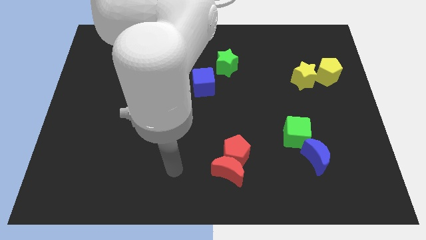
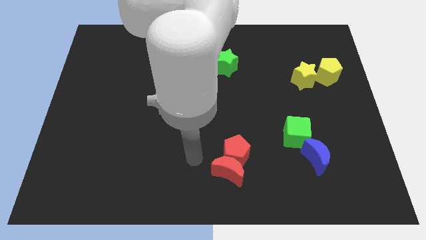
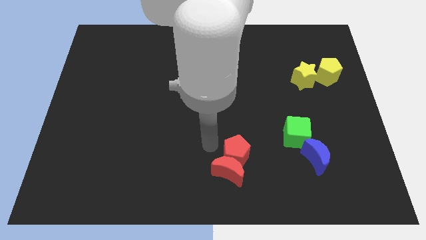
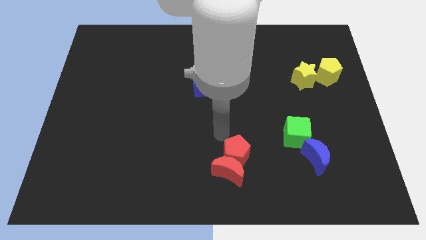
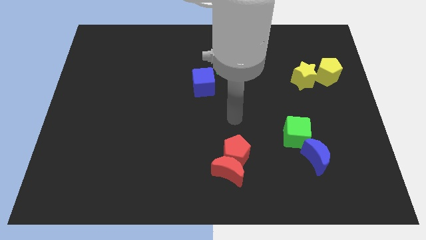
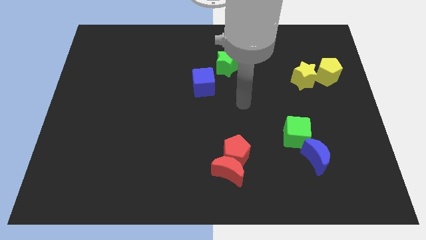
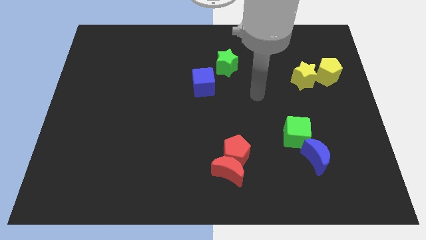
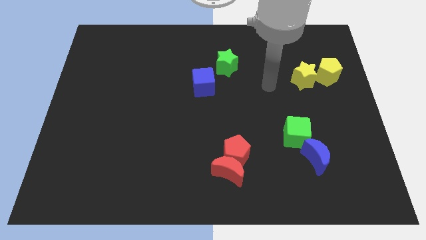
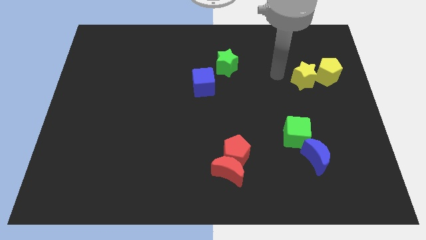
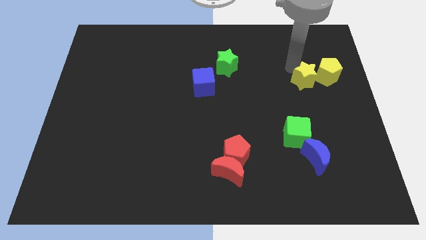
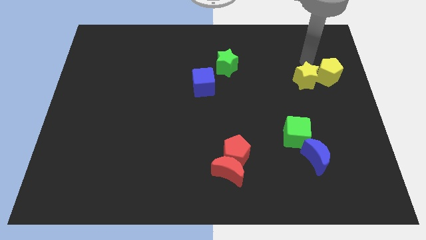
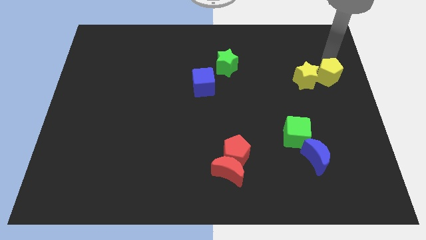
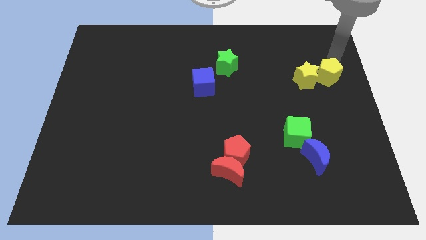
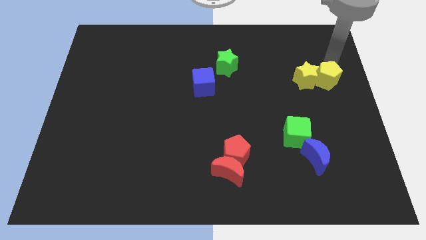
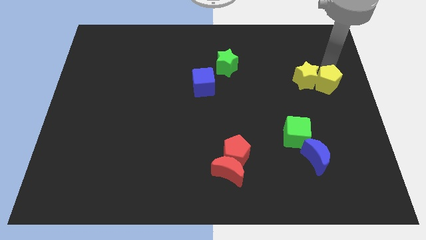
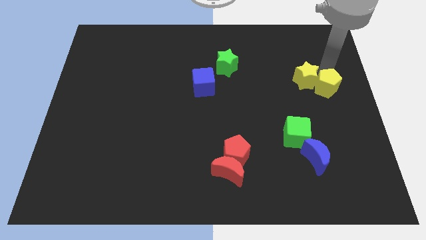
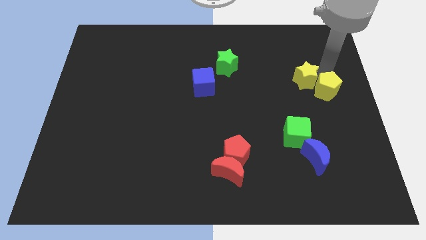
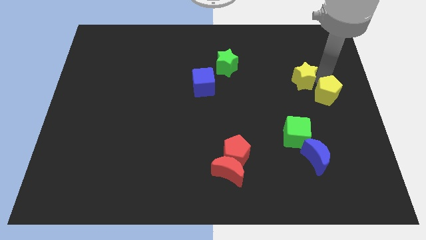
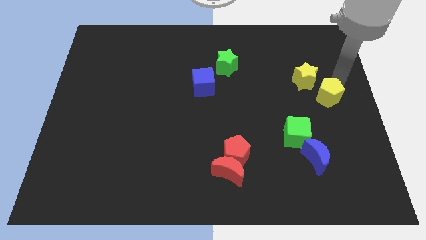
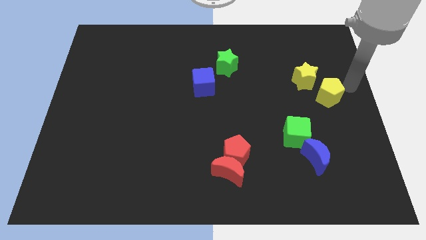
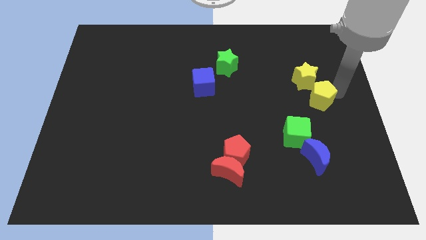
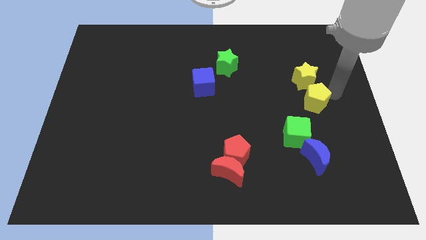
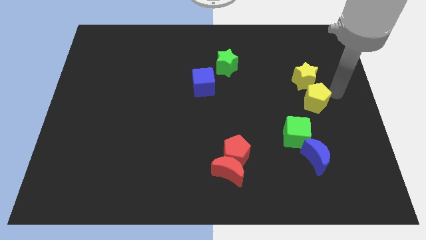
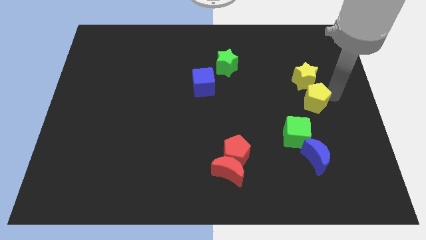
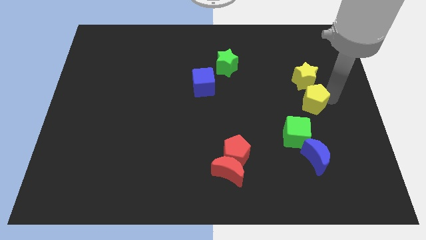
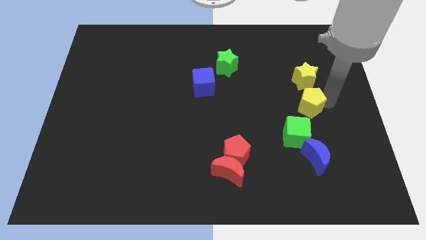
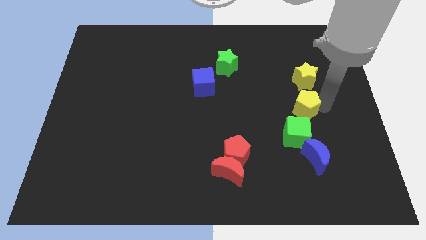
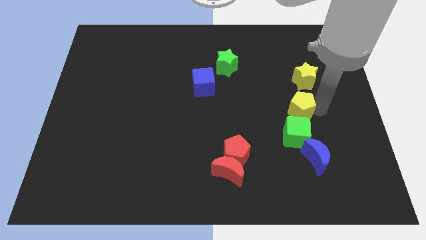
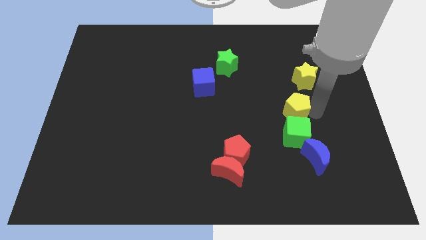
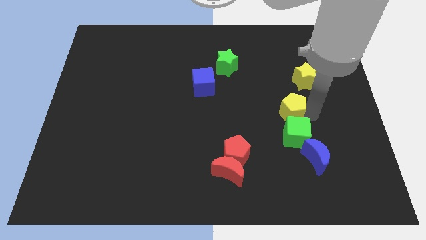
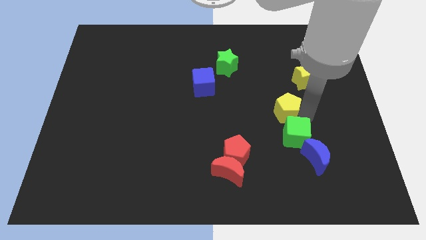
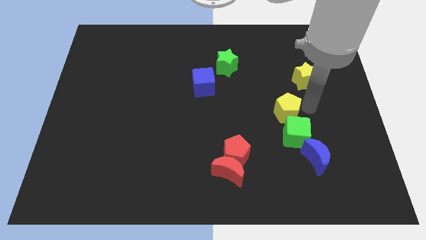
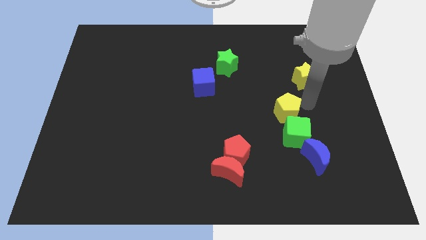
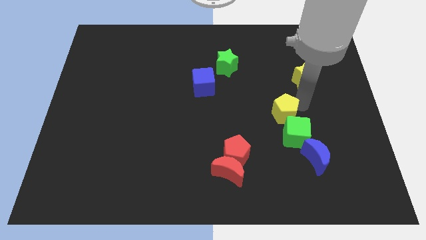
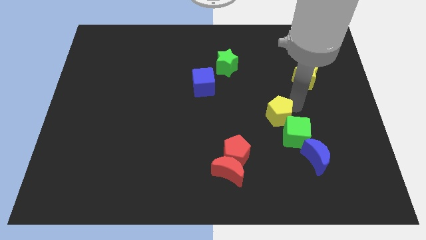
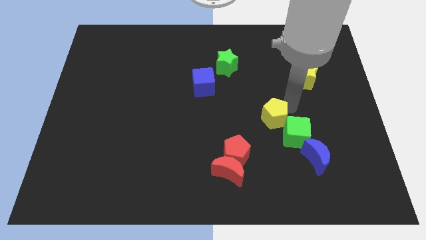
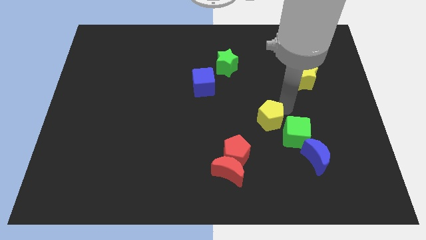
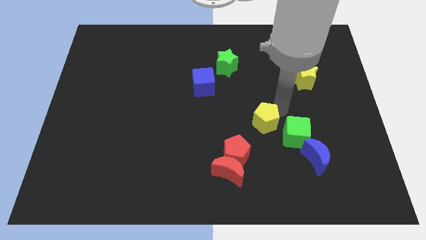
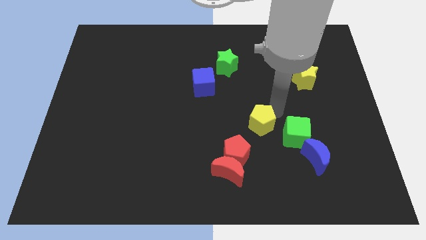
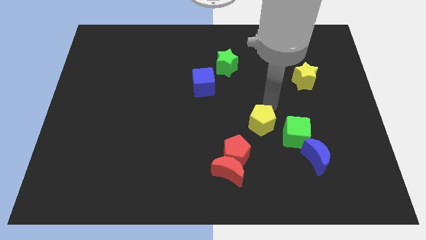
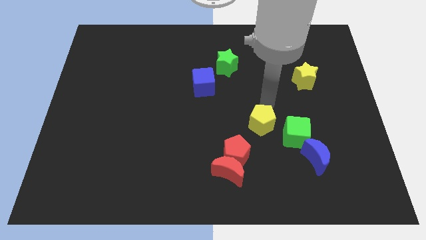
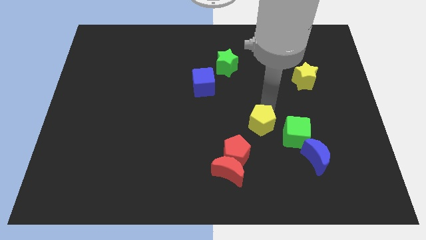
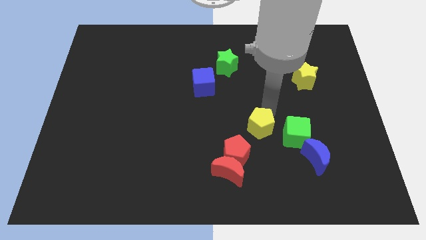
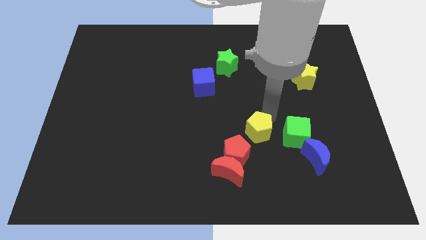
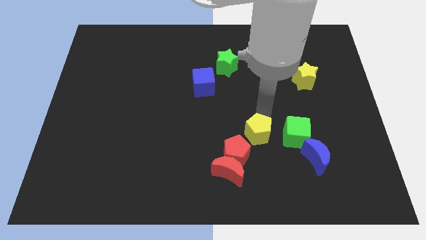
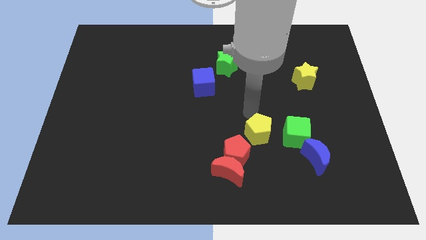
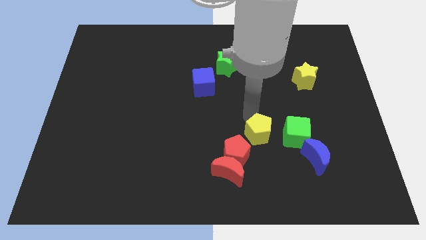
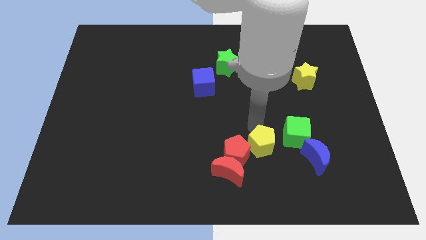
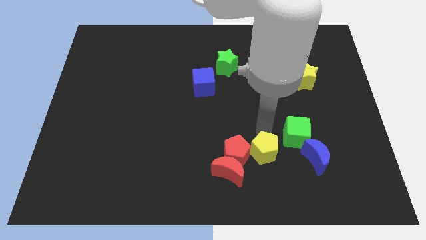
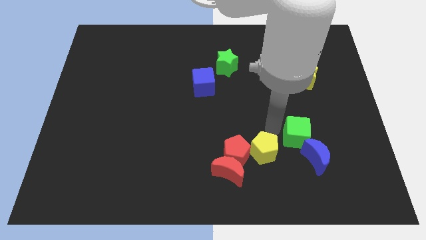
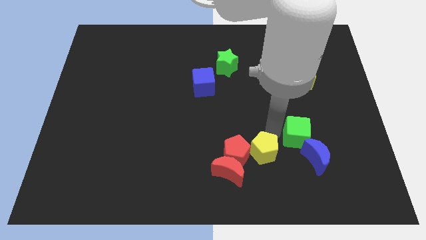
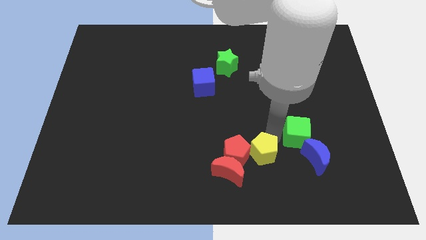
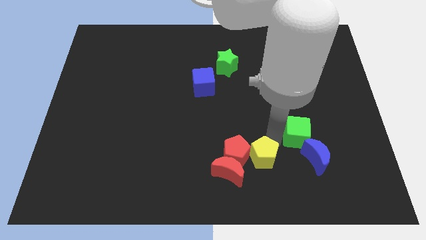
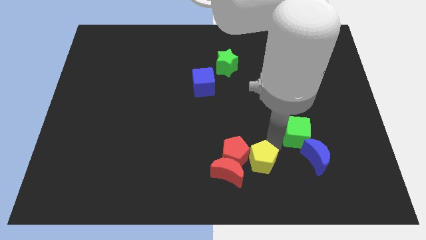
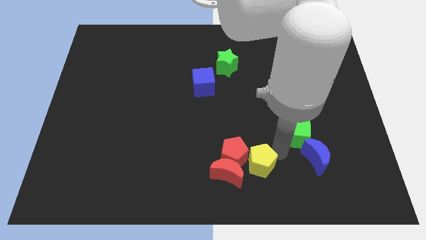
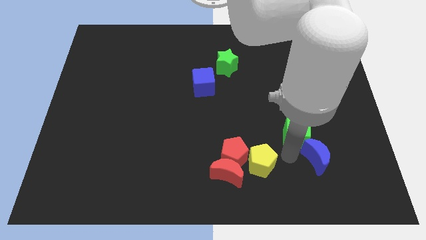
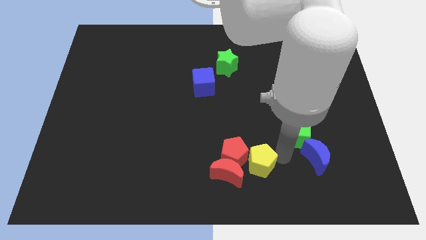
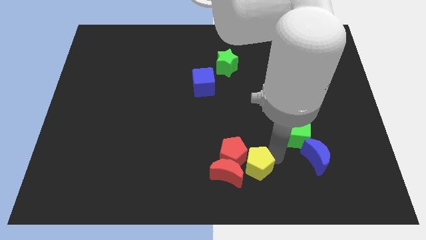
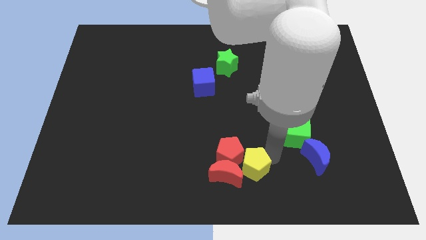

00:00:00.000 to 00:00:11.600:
move the yellow pentagon close to the red moon

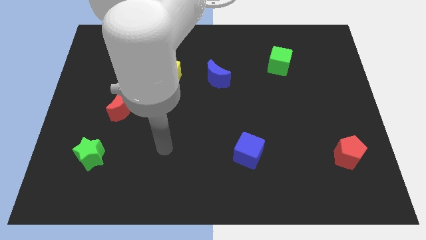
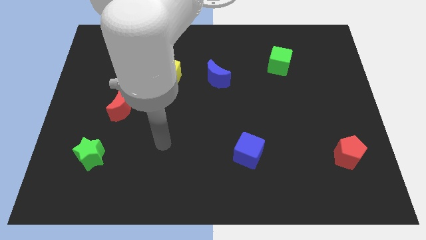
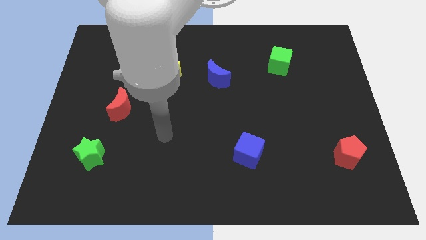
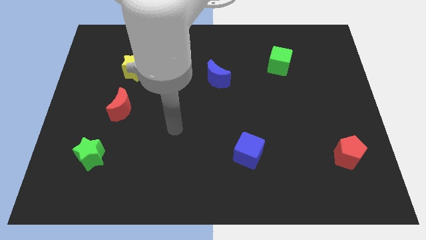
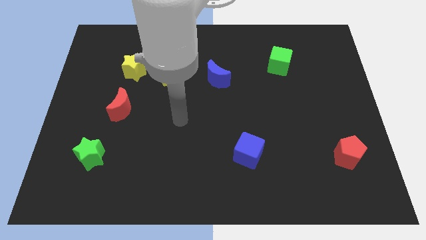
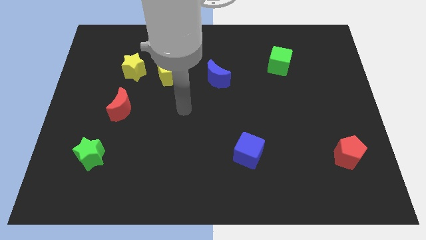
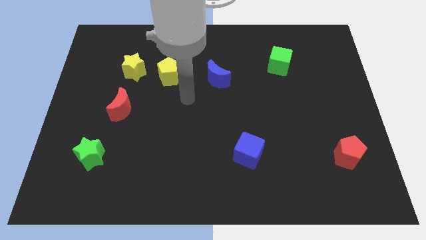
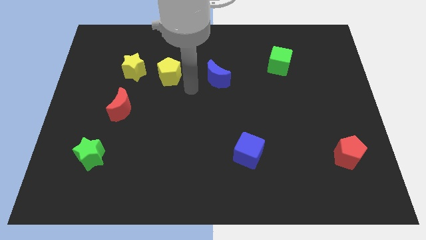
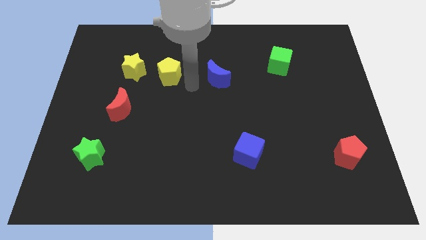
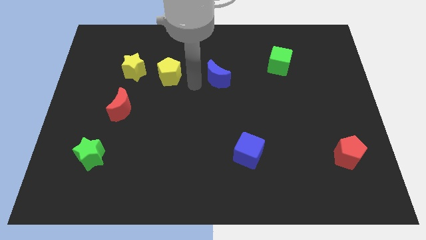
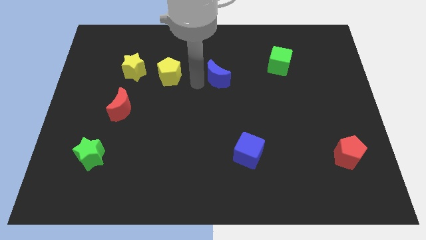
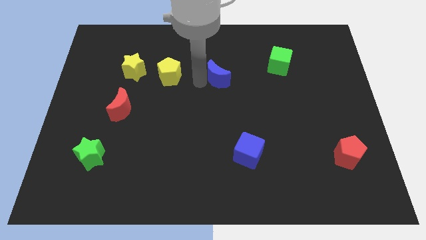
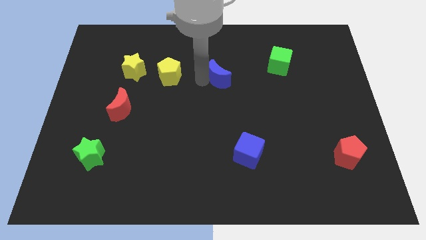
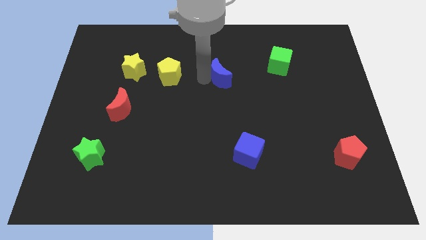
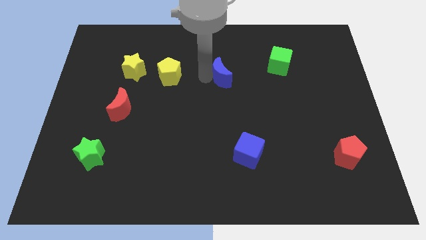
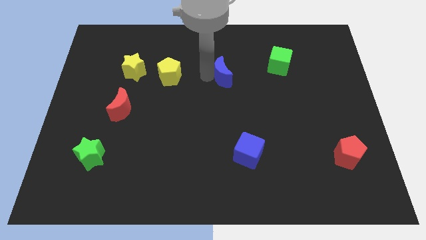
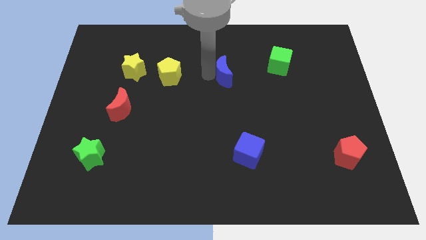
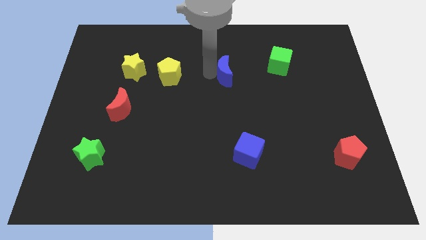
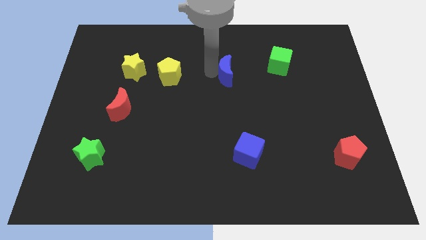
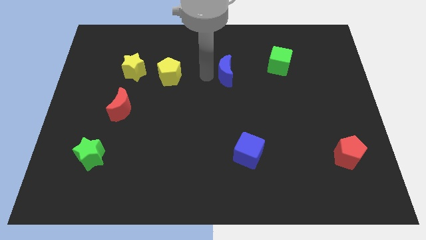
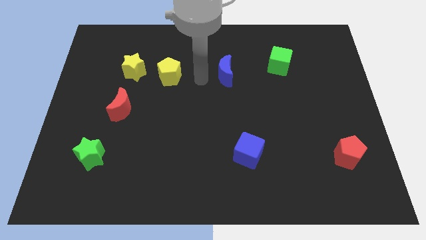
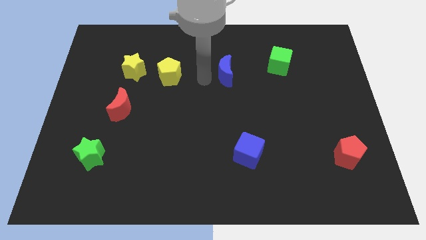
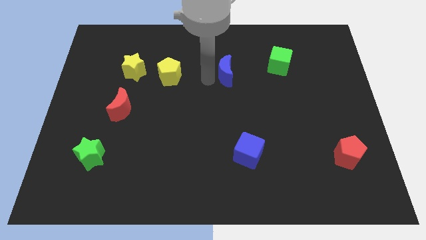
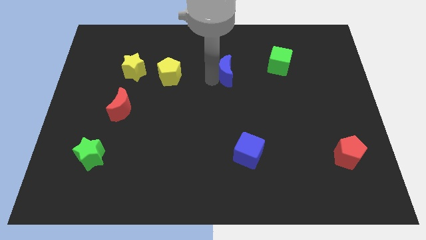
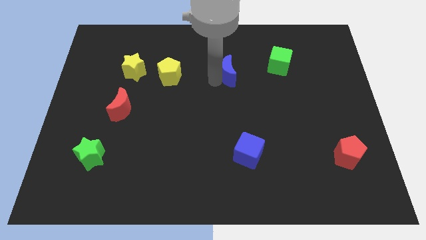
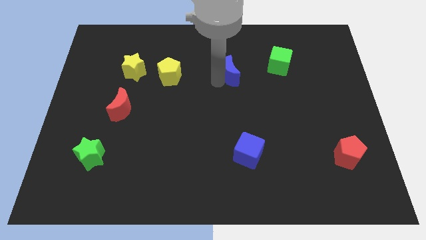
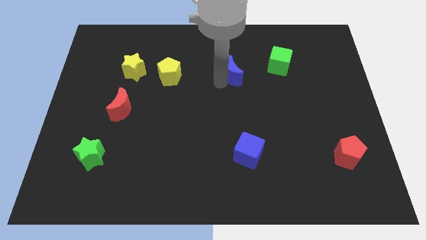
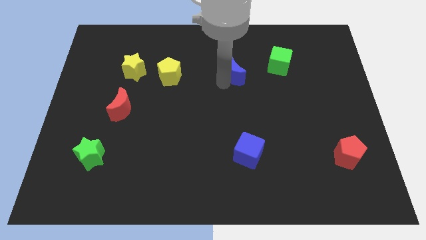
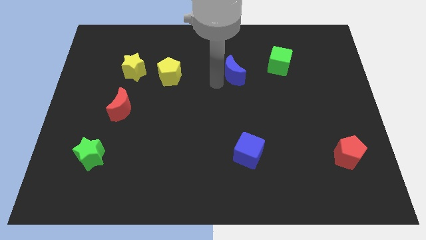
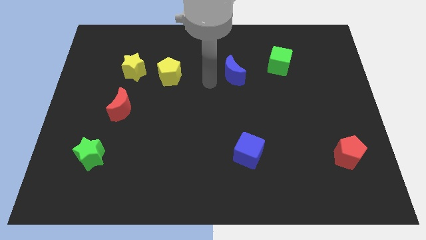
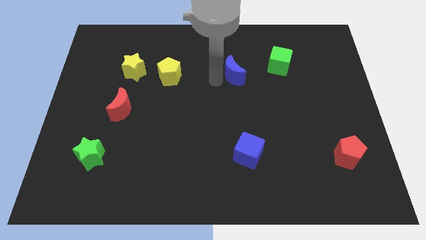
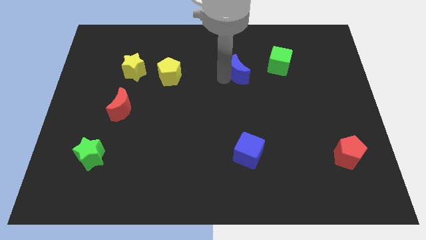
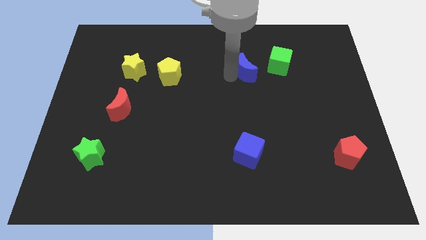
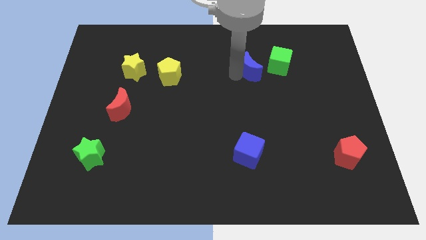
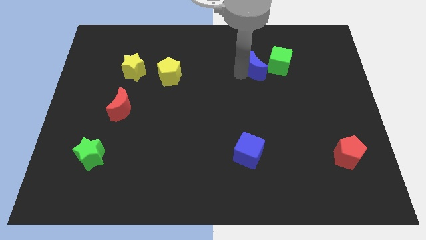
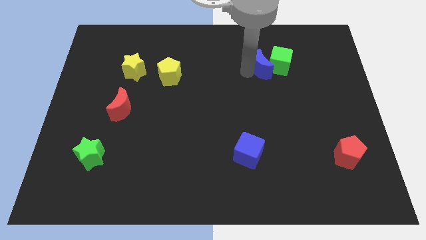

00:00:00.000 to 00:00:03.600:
put the blue moon to the green cube
